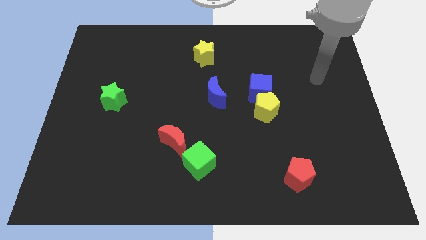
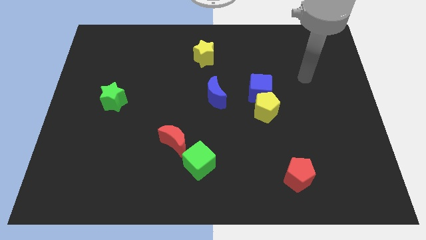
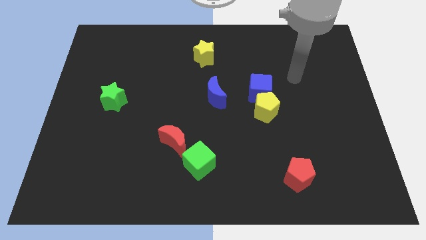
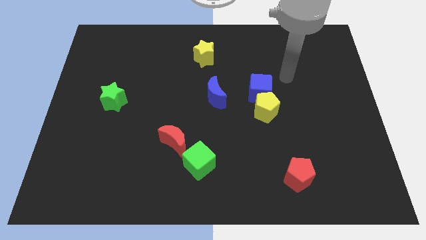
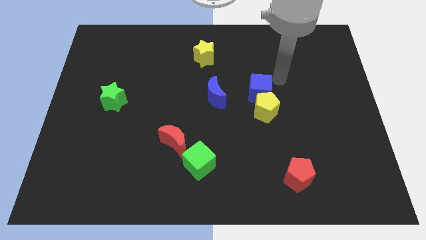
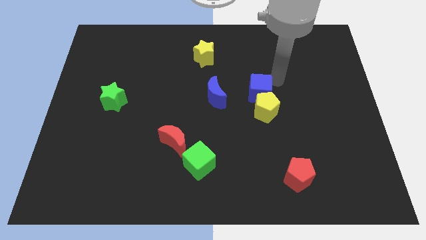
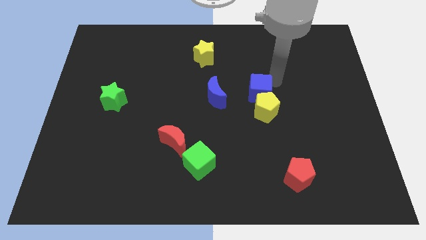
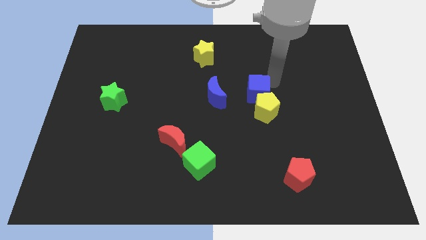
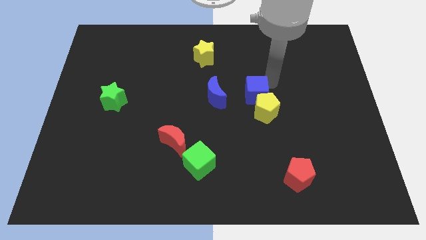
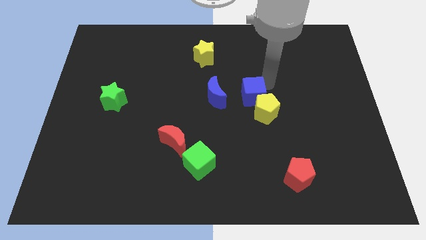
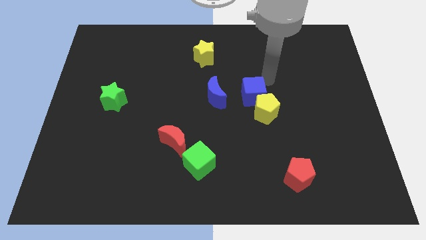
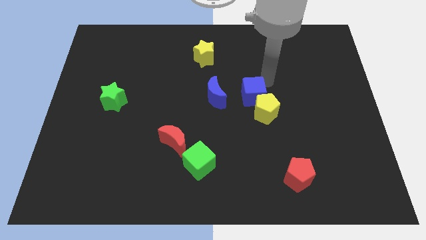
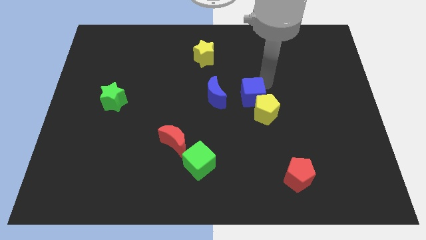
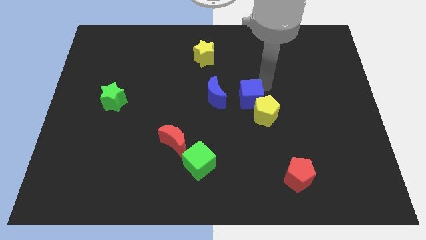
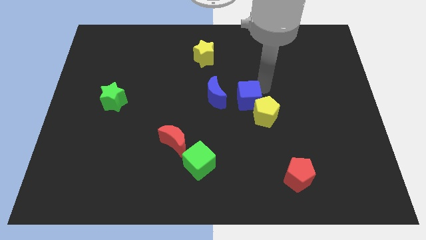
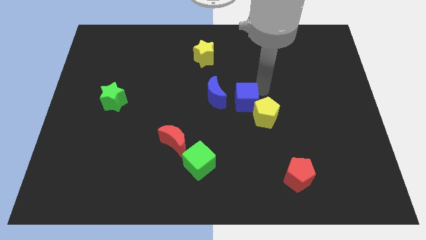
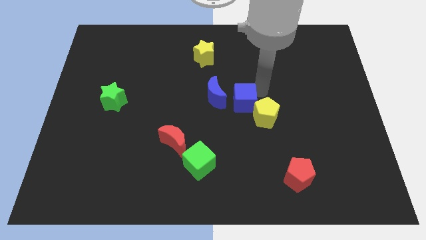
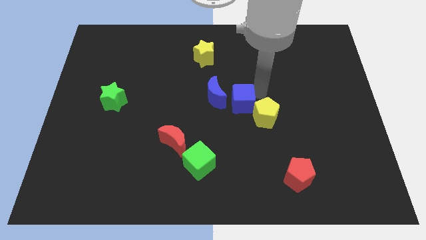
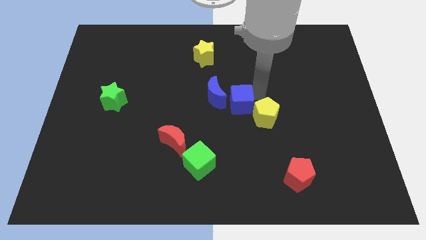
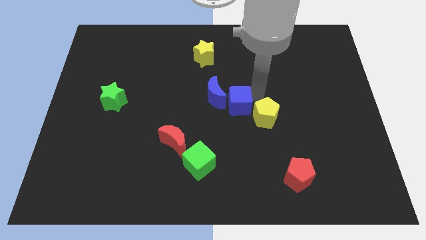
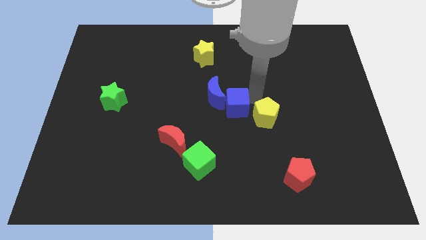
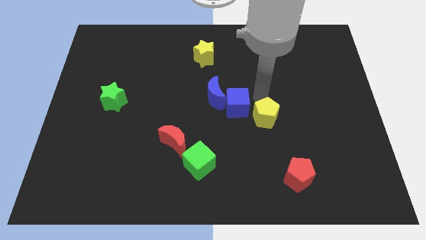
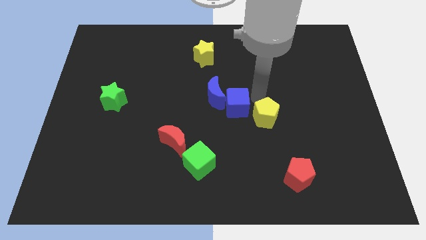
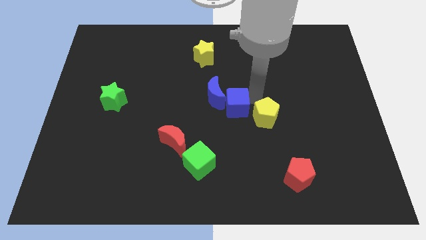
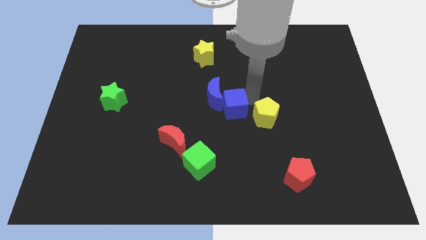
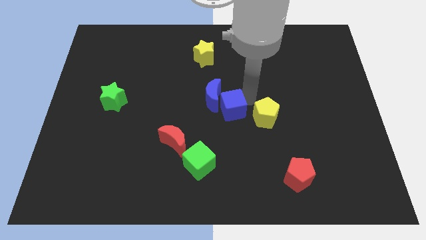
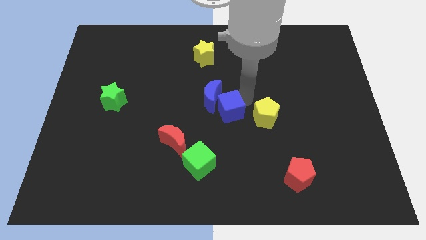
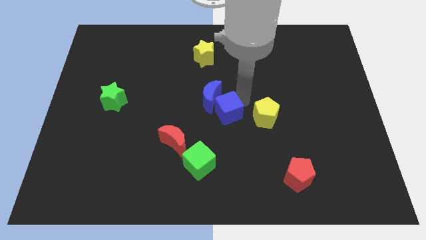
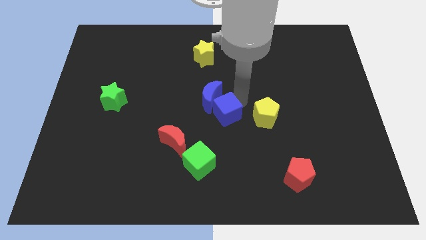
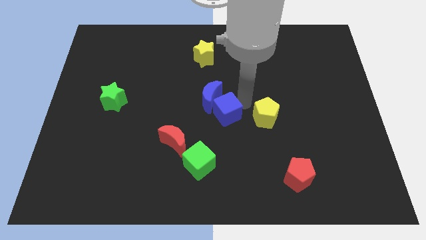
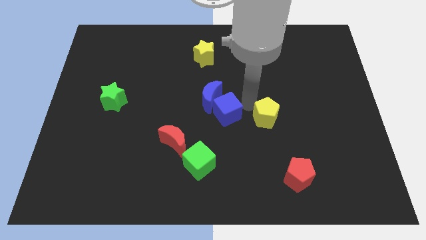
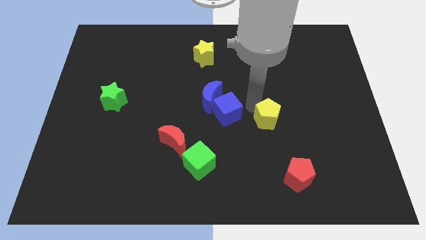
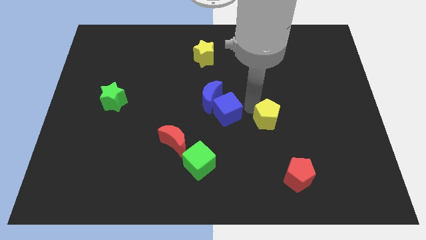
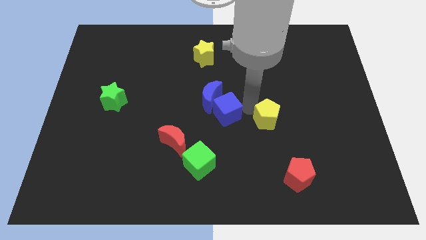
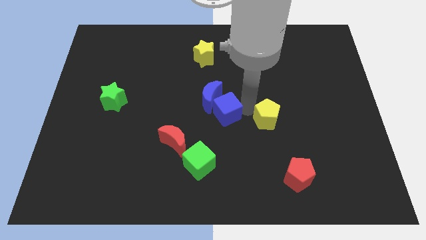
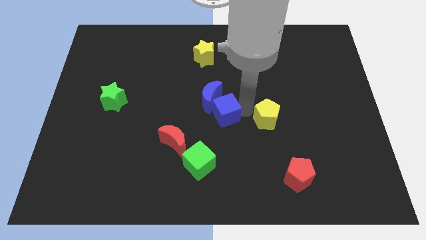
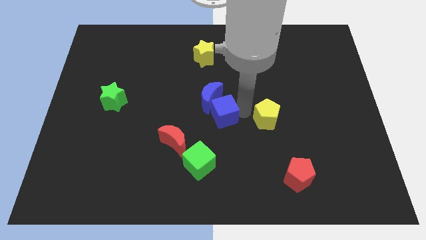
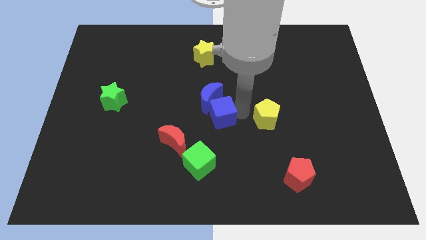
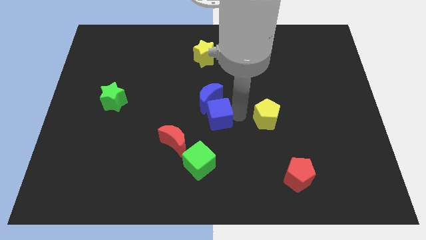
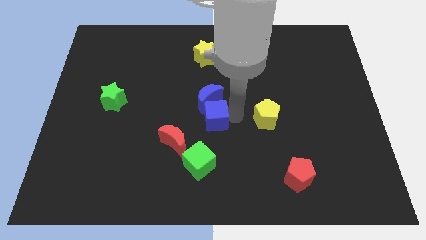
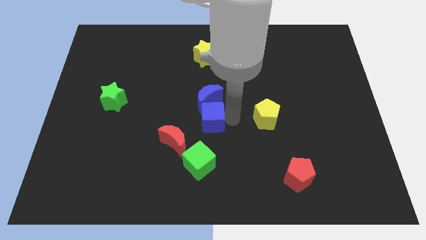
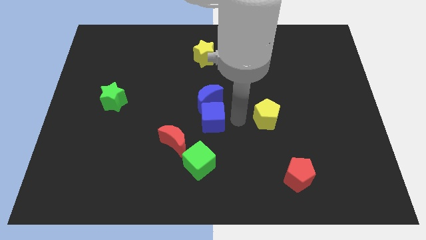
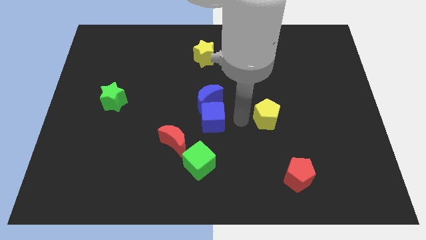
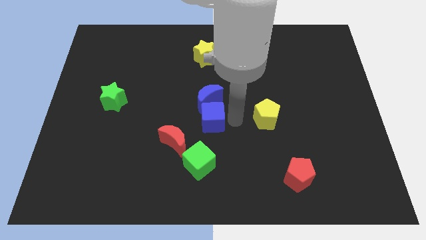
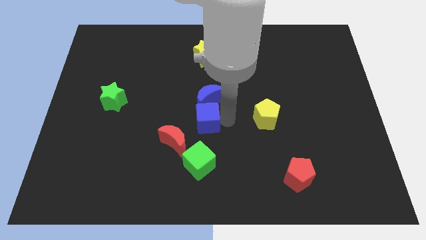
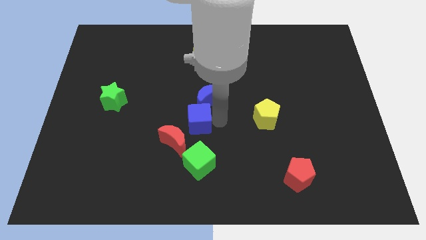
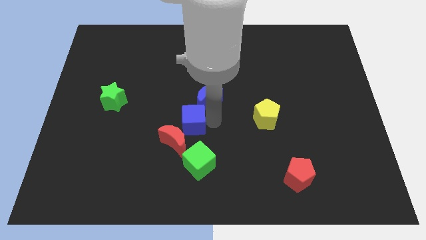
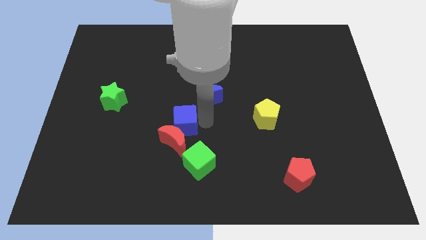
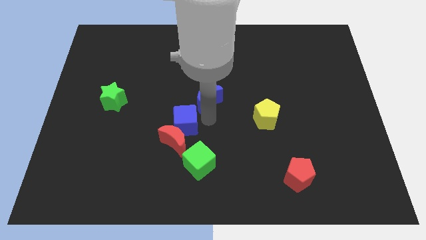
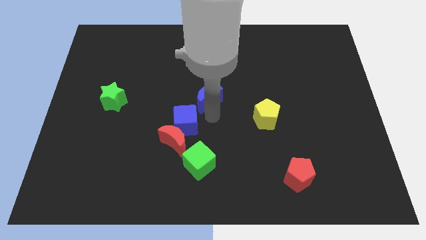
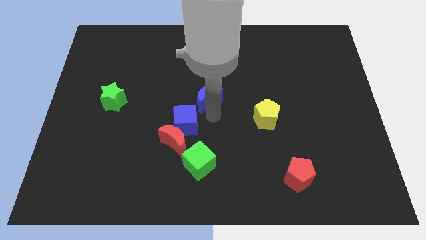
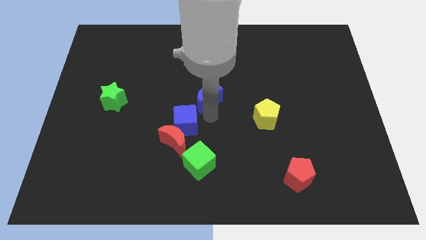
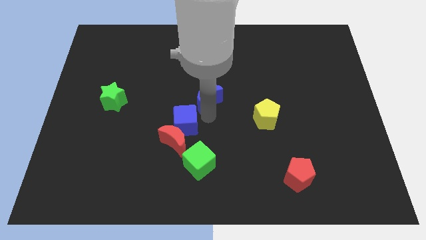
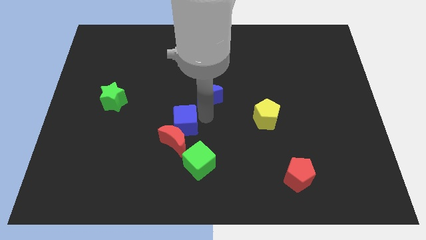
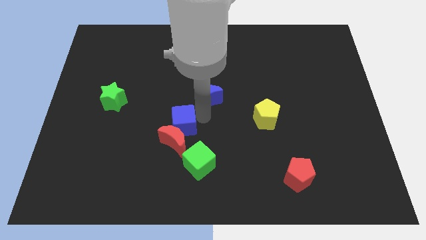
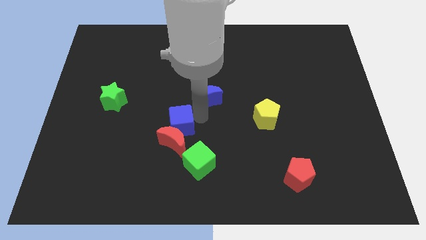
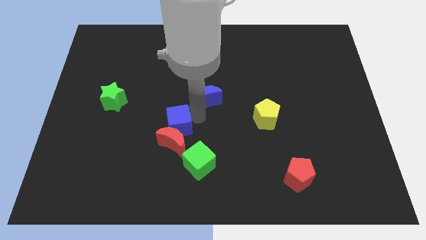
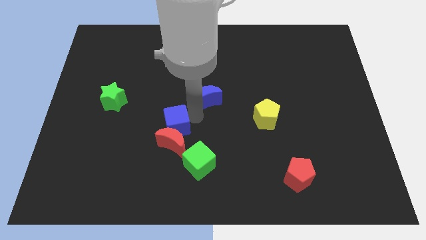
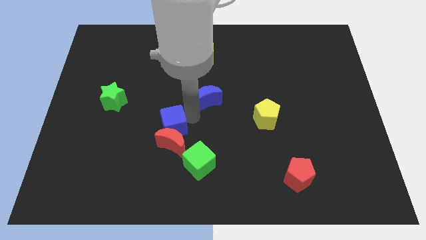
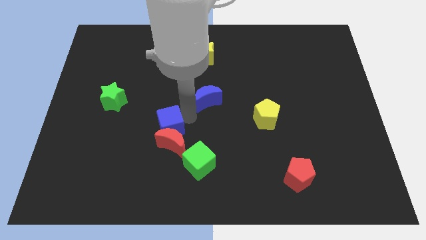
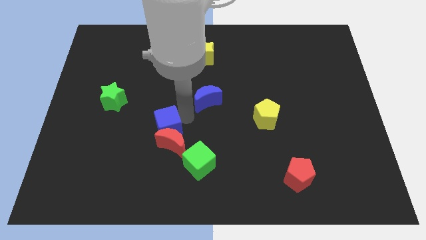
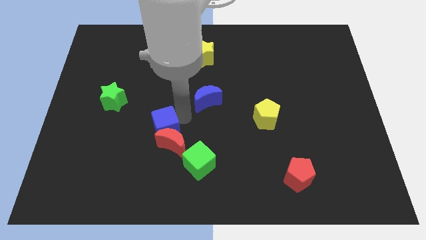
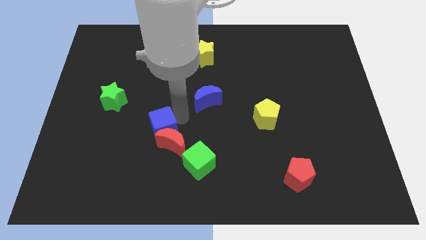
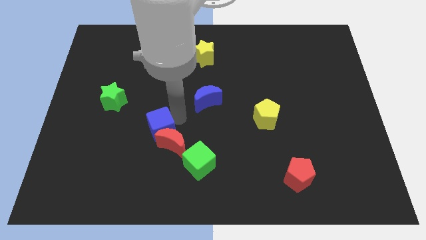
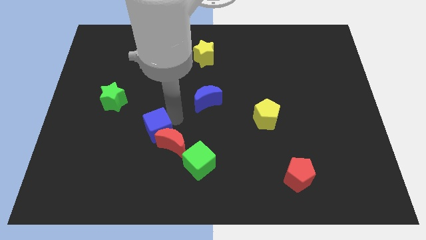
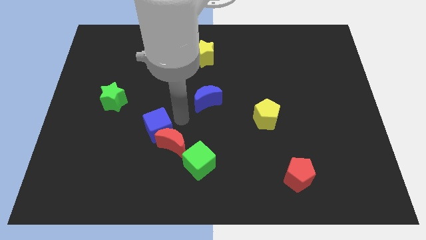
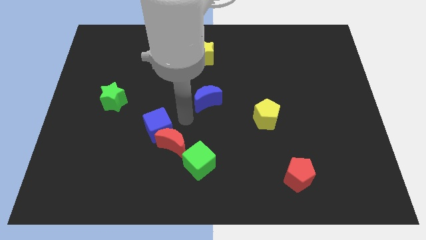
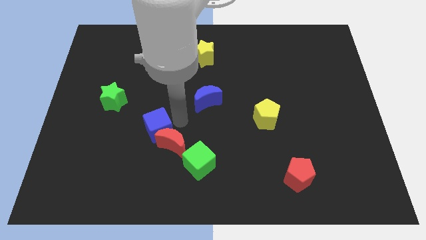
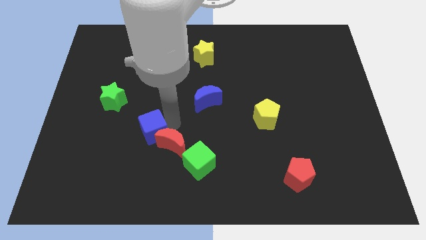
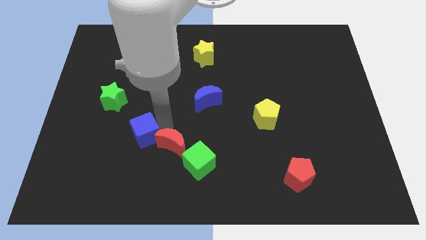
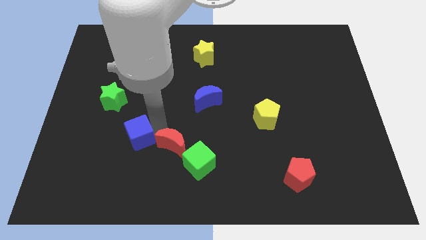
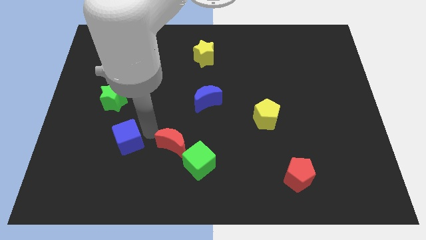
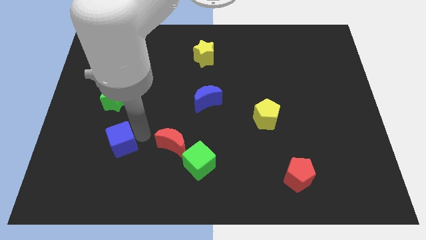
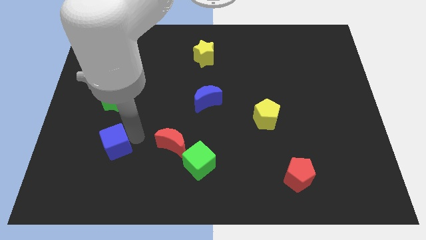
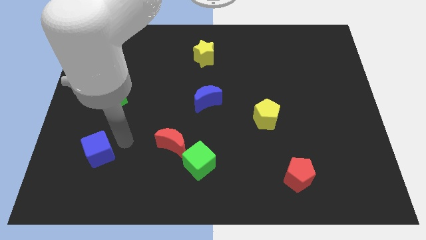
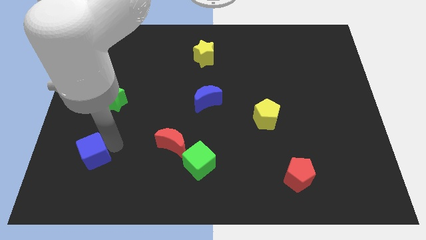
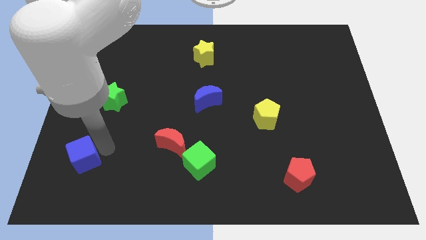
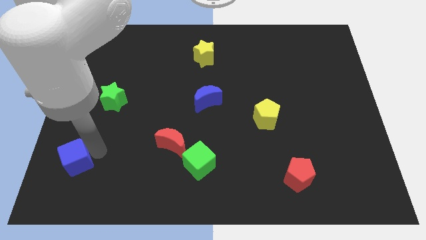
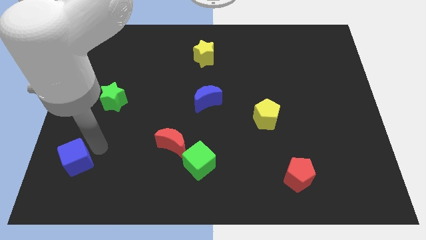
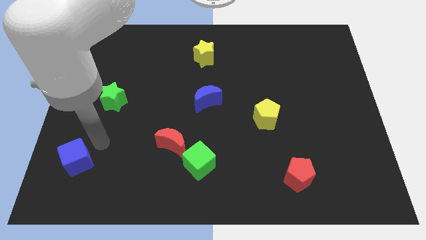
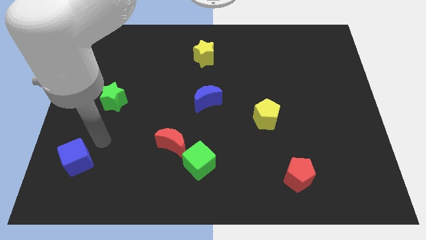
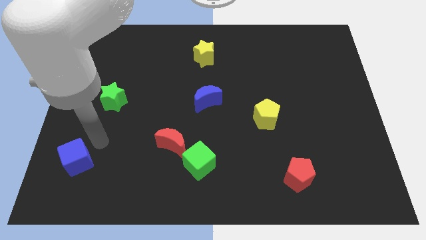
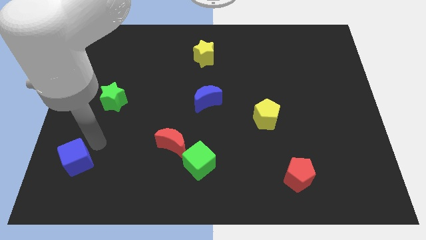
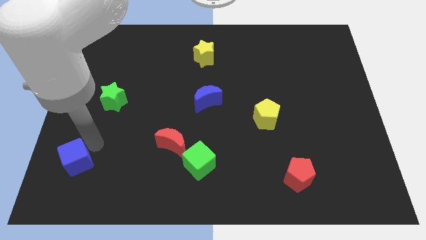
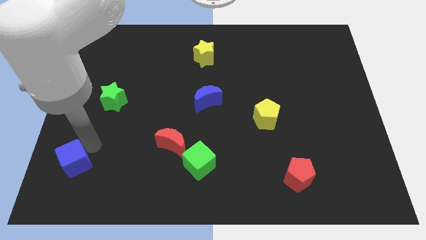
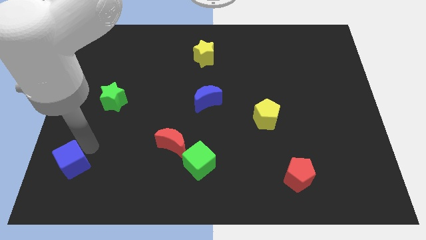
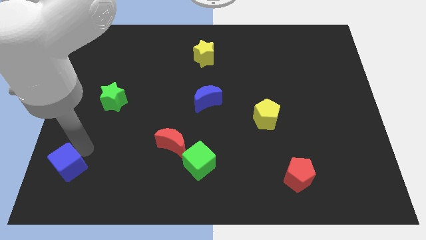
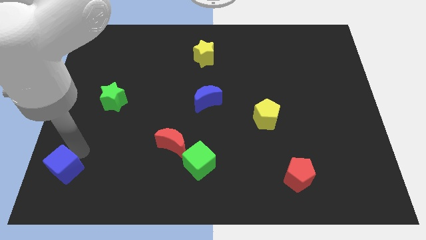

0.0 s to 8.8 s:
move the blue cube to the bottom left corner
